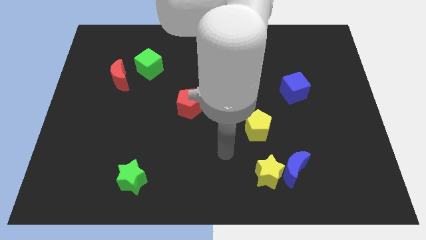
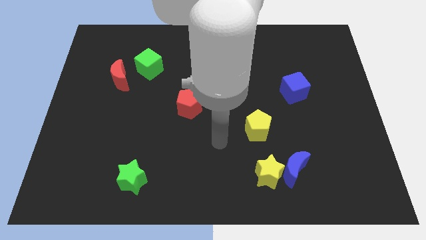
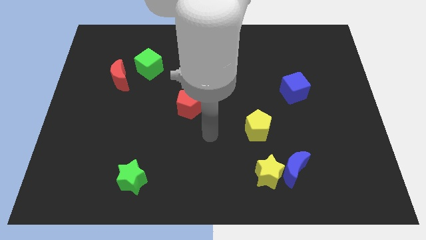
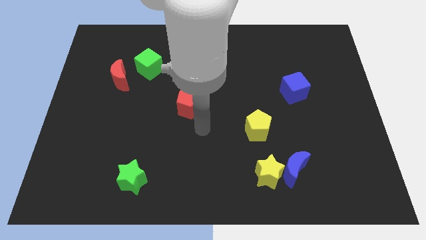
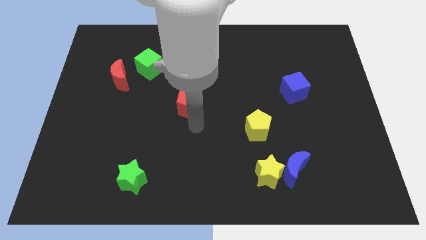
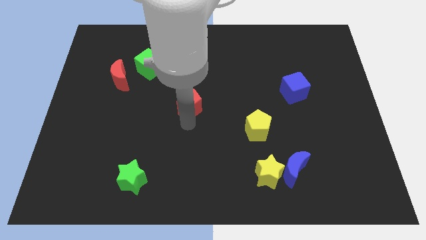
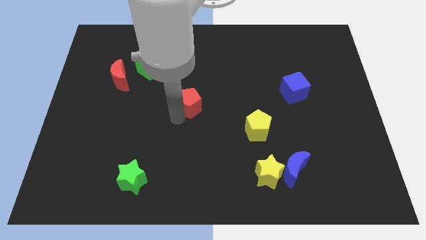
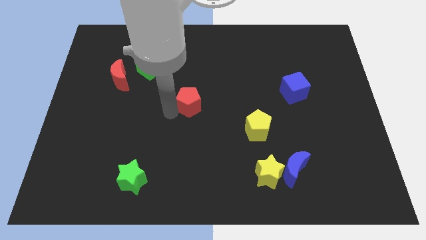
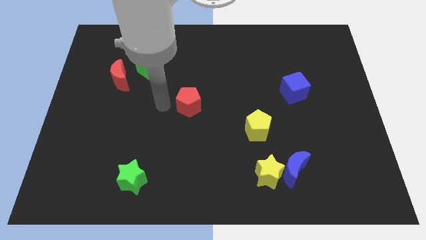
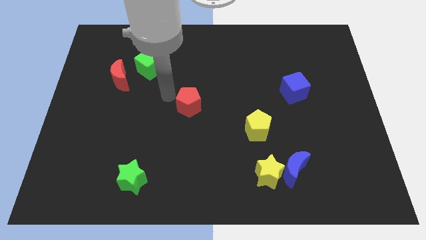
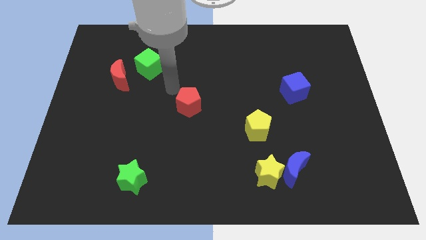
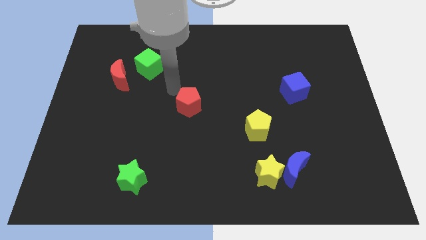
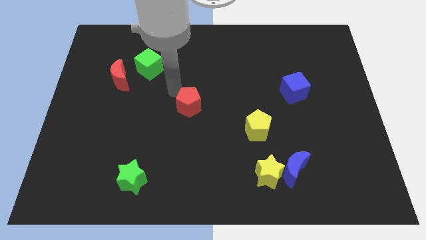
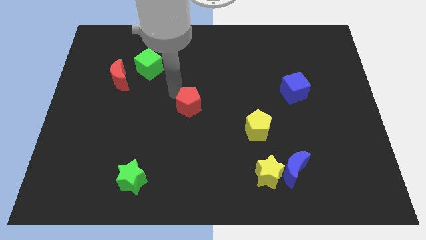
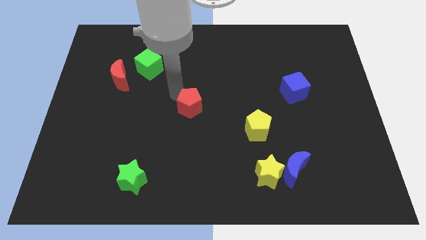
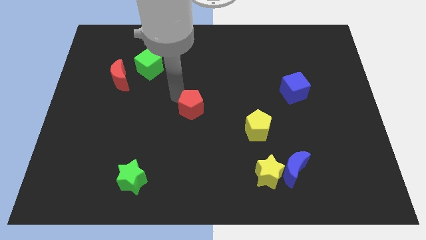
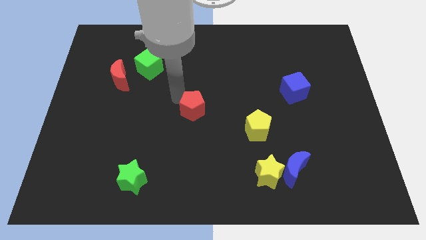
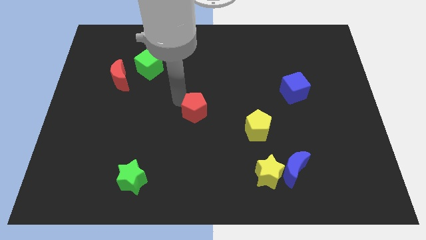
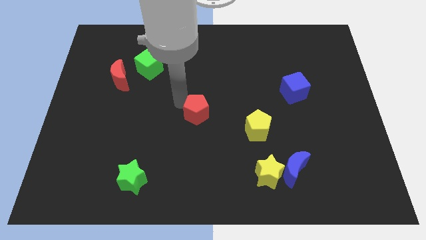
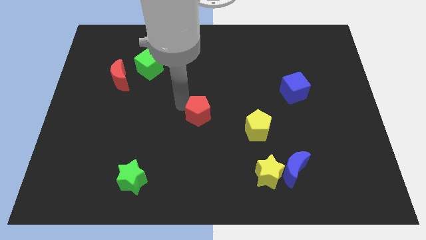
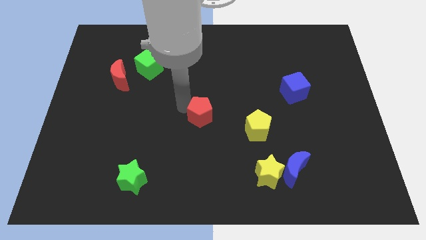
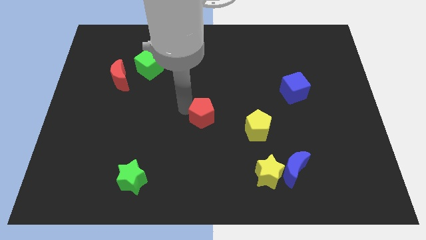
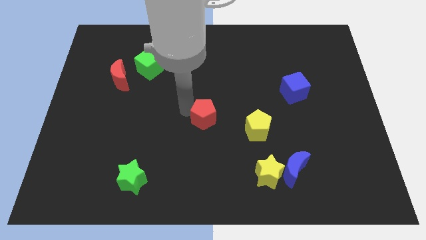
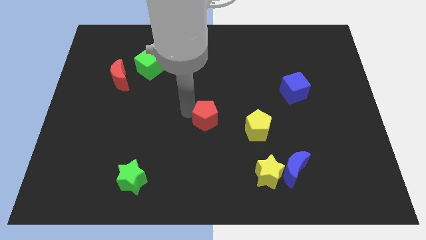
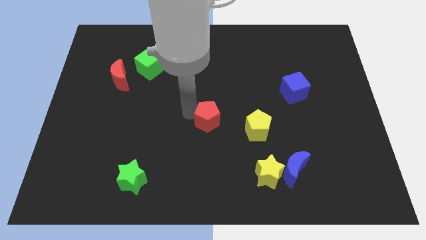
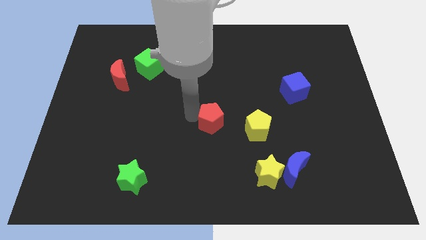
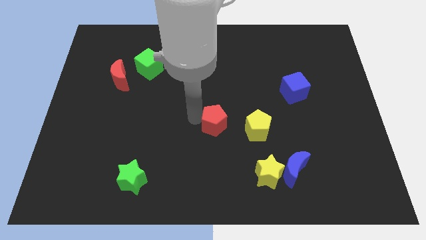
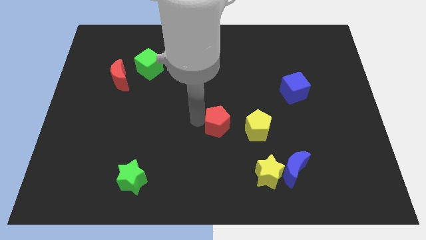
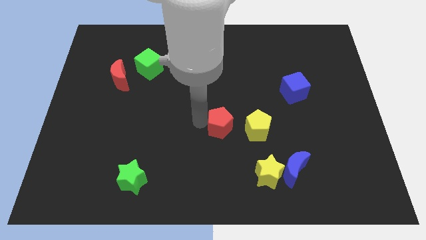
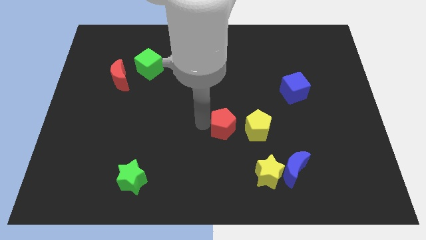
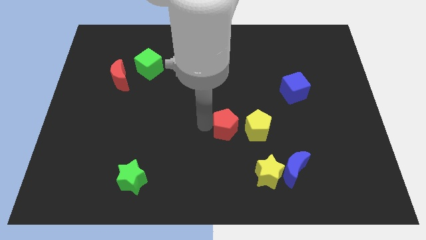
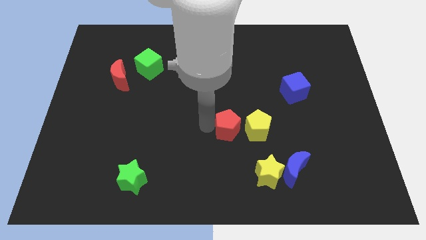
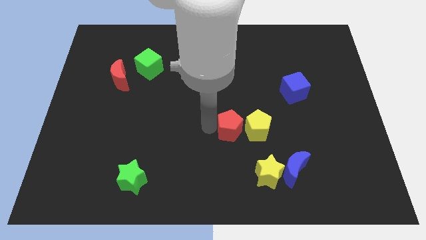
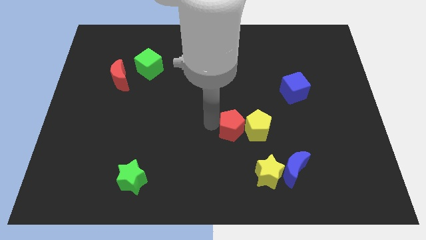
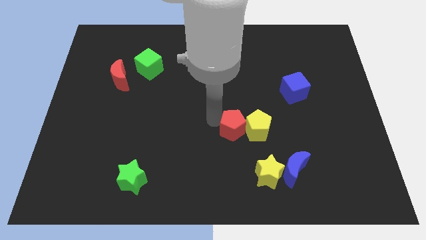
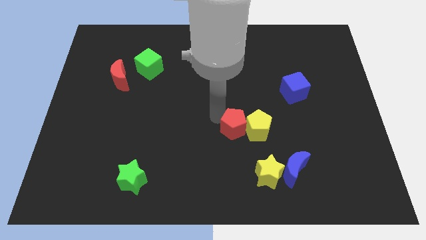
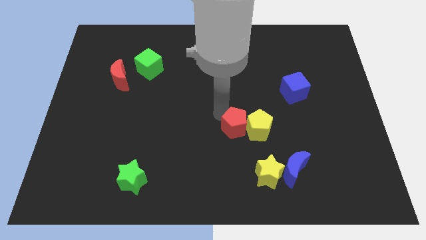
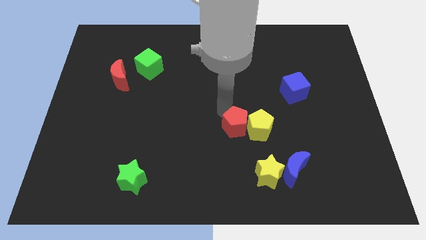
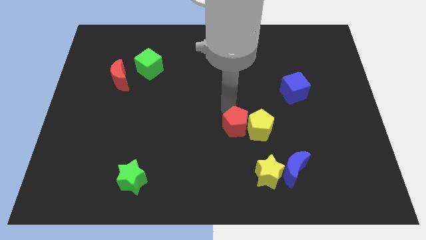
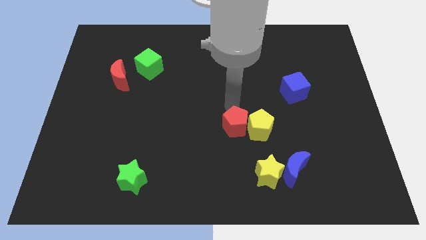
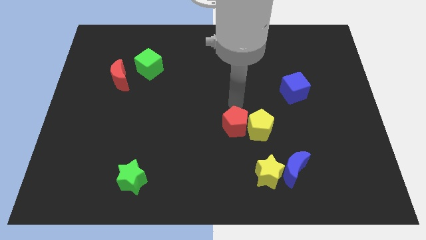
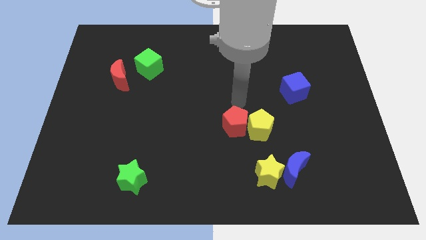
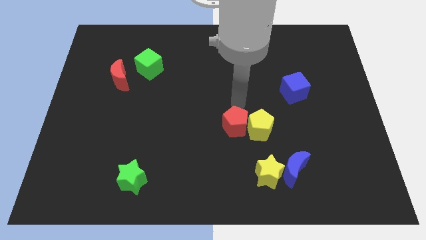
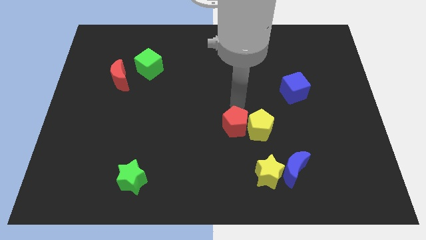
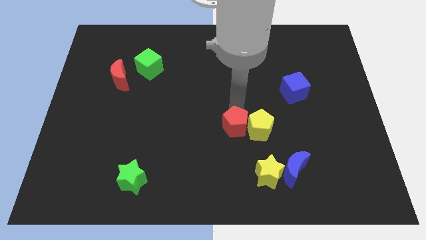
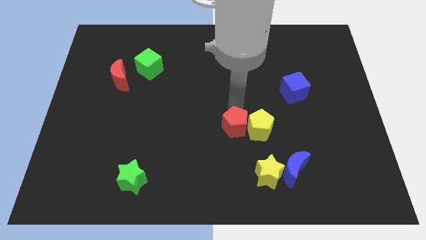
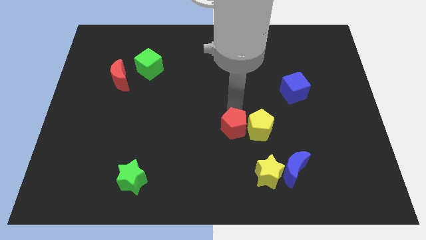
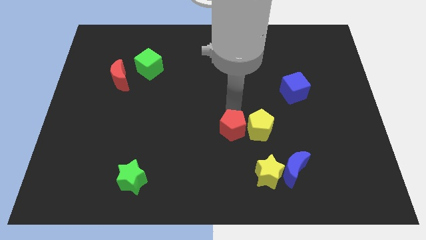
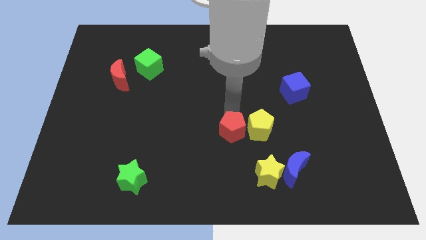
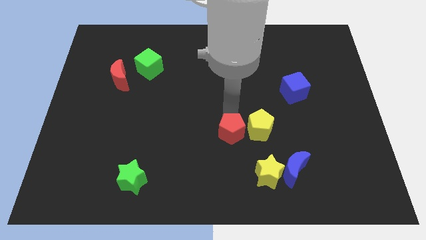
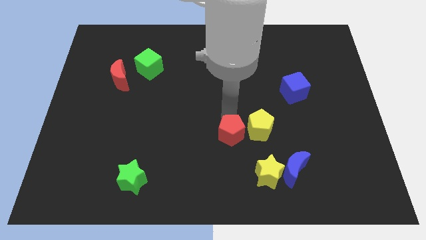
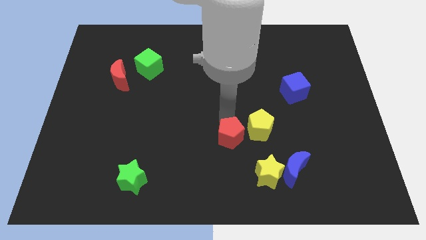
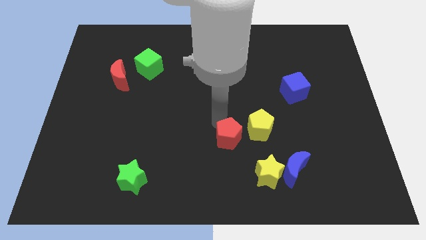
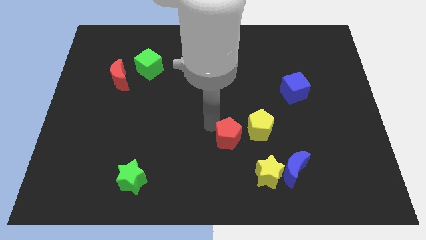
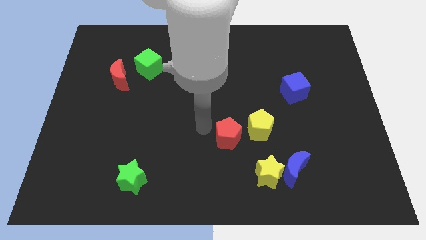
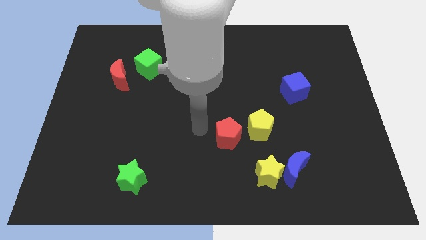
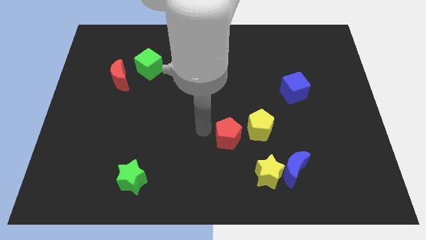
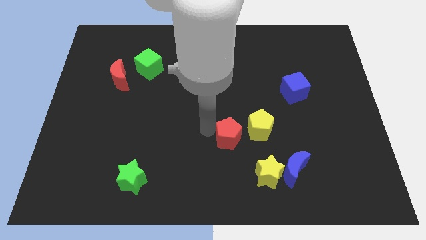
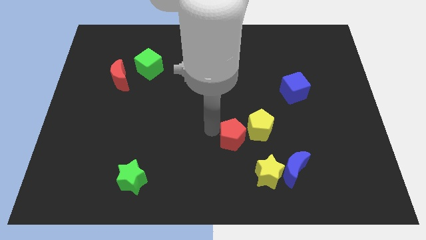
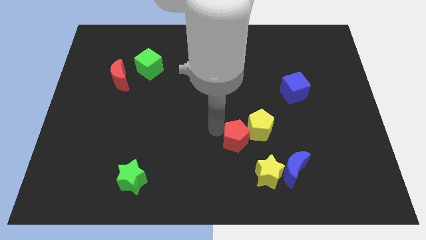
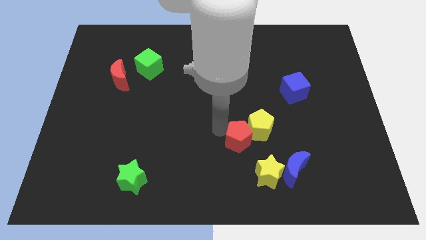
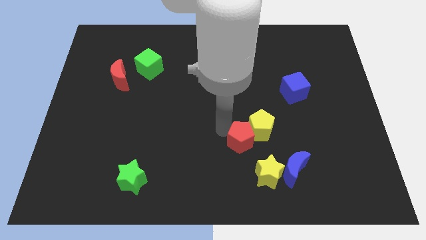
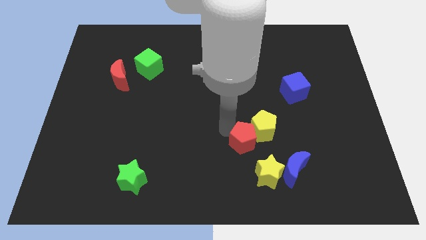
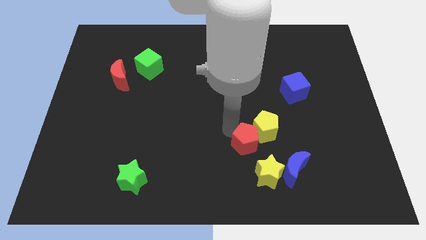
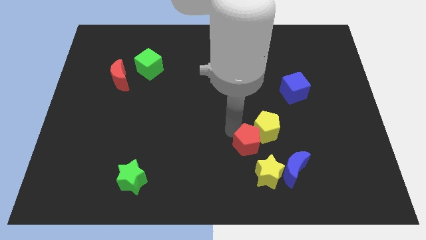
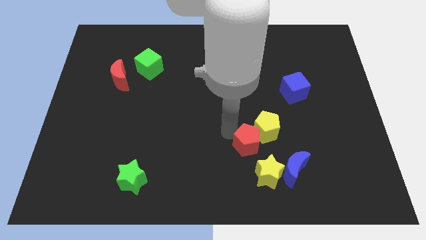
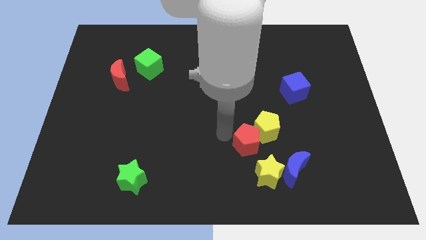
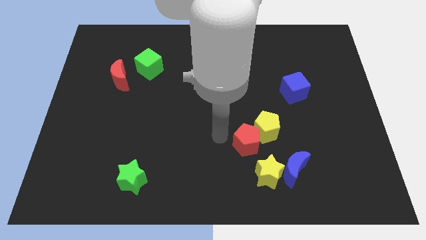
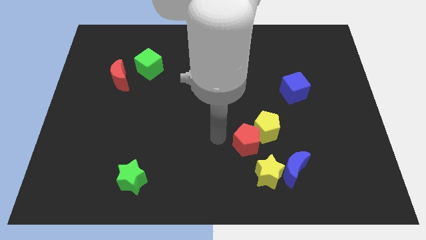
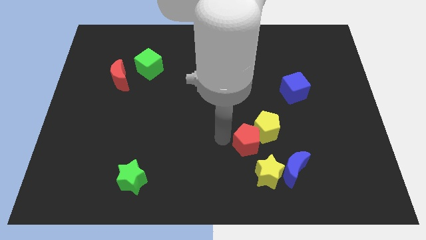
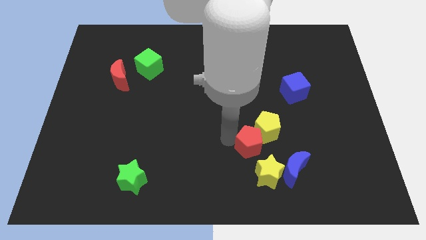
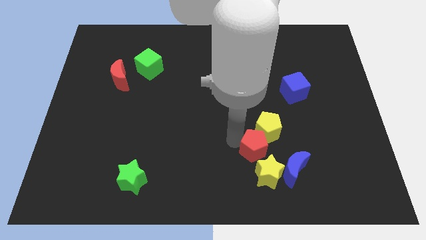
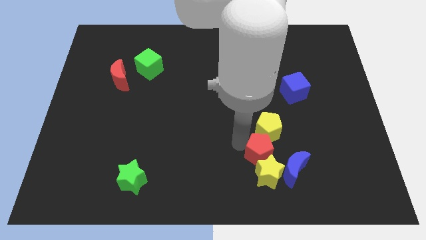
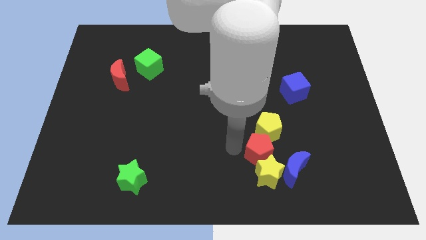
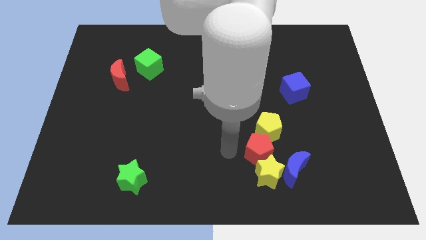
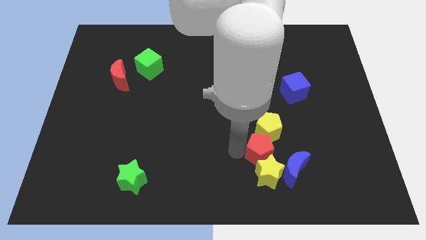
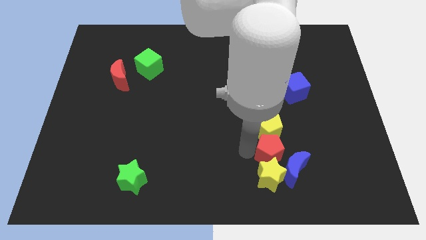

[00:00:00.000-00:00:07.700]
move the red pentagon diagonally down and to the right of the yellow pentagon

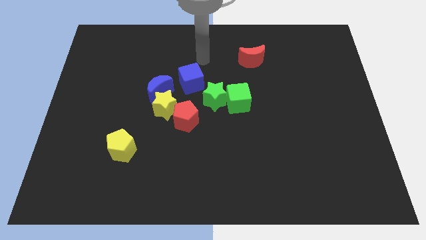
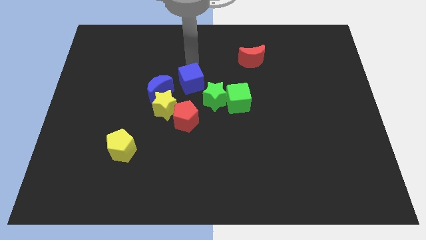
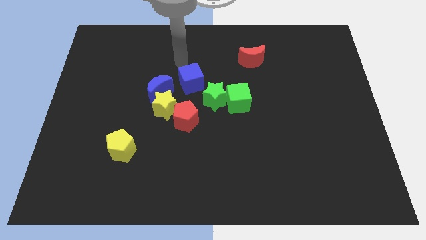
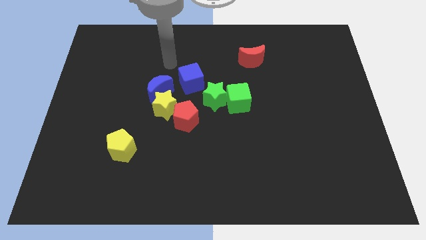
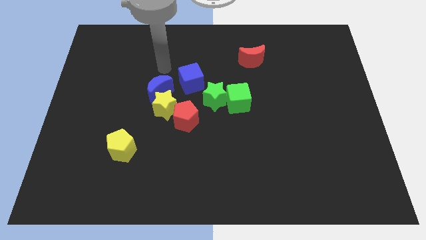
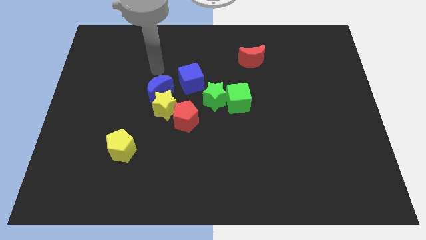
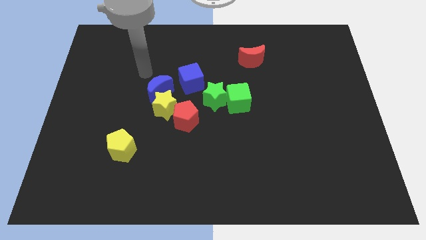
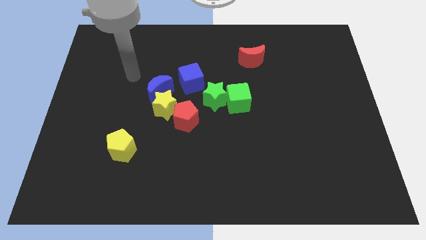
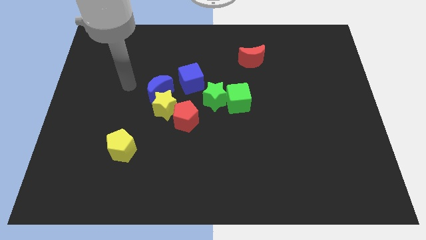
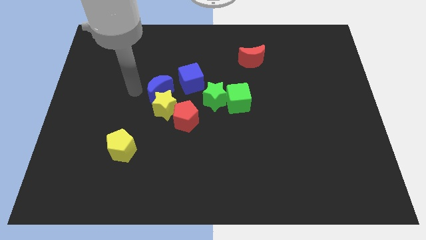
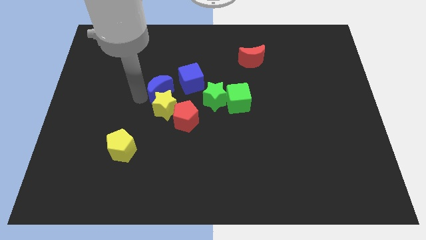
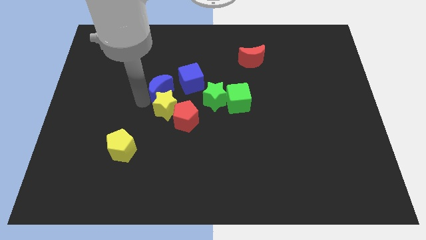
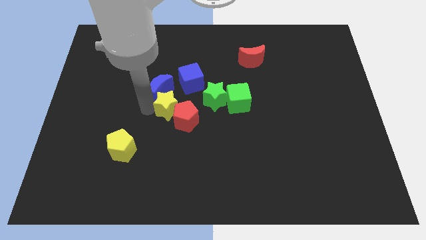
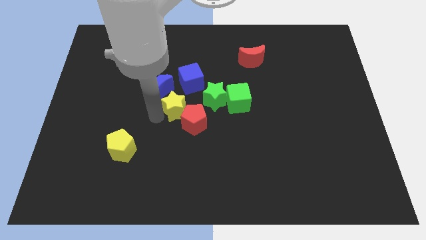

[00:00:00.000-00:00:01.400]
push the red pentagon to the bottom left side of the green cube
